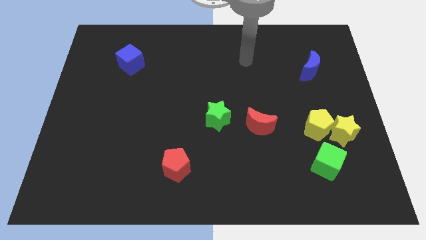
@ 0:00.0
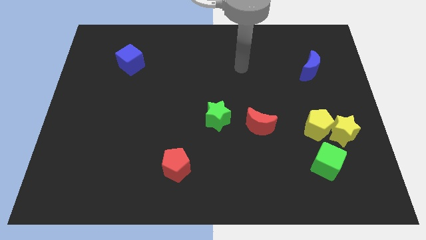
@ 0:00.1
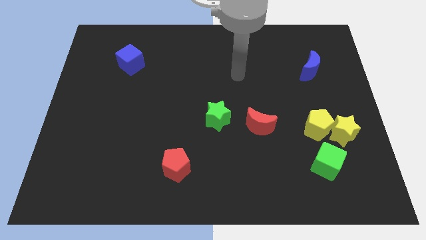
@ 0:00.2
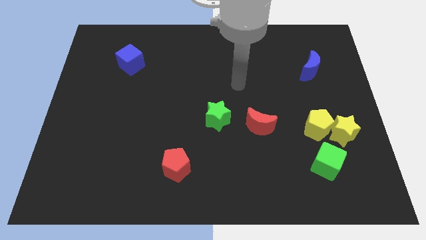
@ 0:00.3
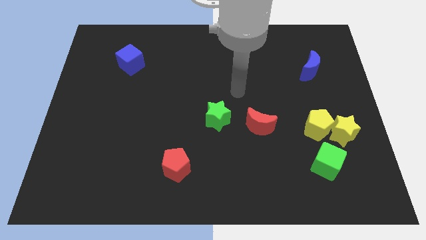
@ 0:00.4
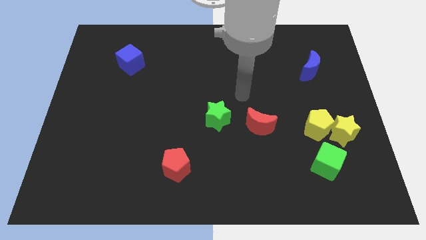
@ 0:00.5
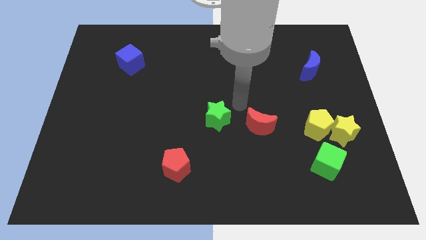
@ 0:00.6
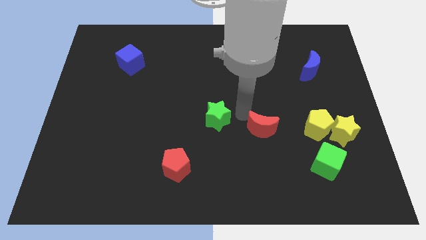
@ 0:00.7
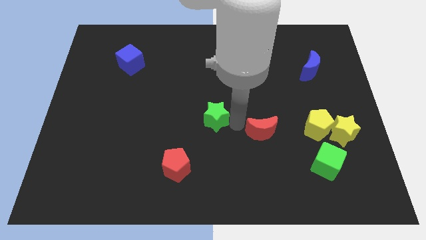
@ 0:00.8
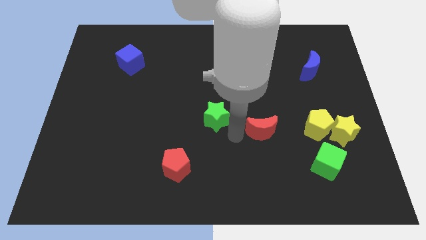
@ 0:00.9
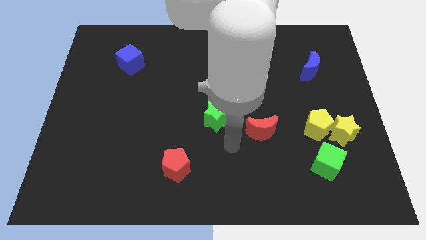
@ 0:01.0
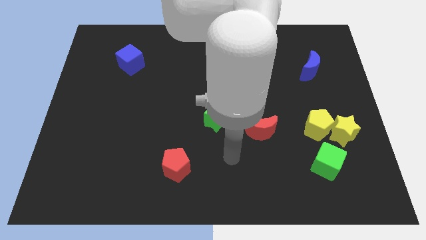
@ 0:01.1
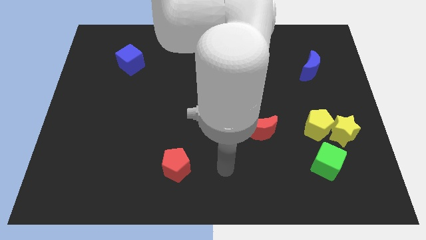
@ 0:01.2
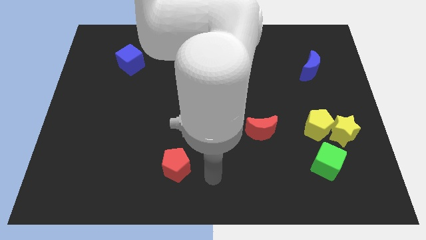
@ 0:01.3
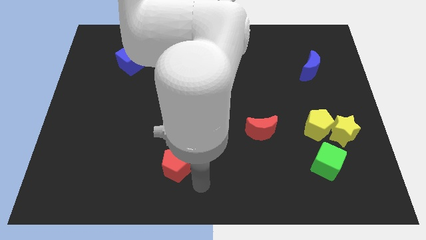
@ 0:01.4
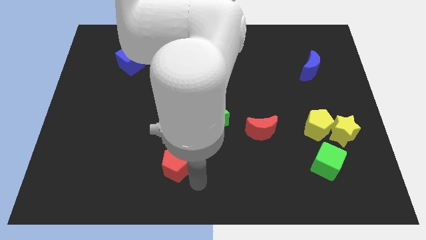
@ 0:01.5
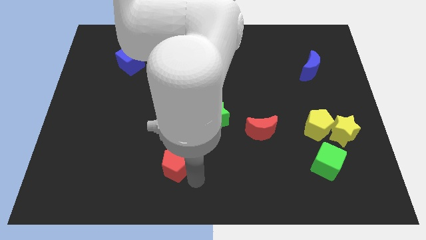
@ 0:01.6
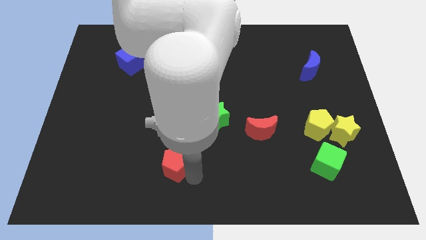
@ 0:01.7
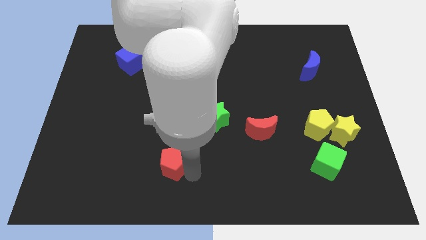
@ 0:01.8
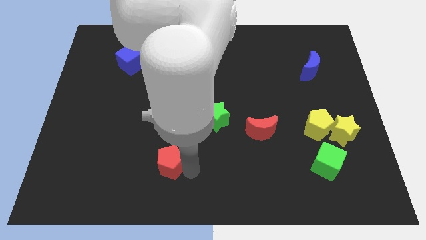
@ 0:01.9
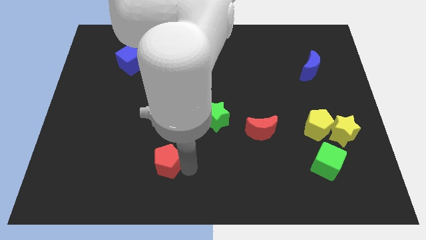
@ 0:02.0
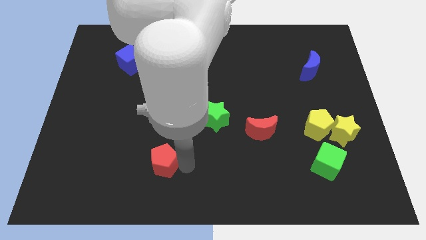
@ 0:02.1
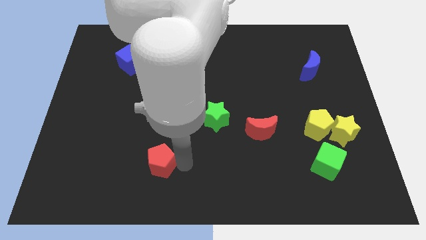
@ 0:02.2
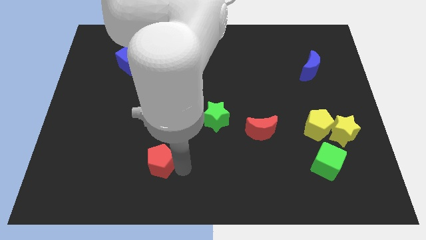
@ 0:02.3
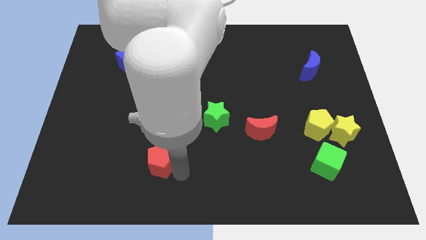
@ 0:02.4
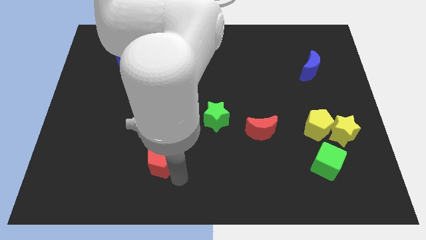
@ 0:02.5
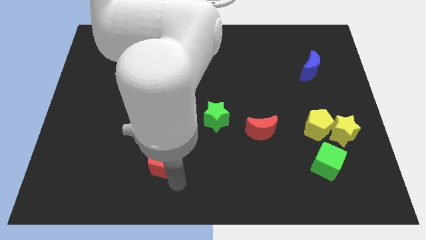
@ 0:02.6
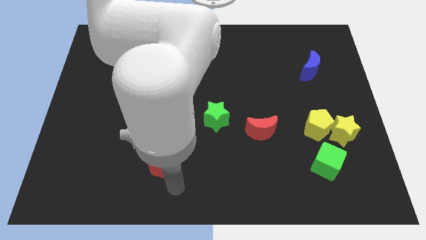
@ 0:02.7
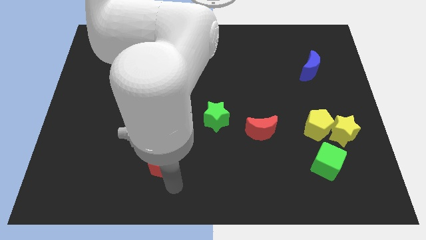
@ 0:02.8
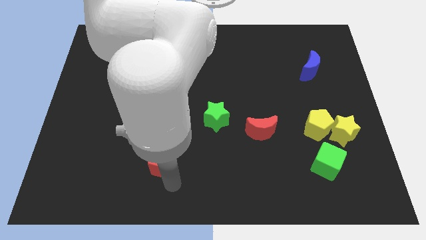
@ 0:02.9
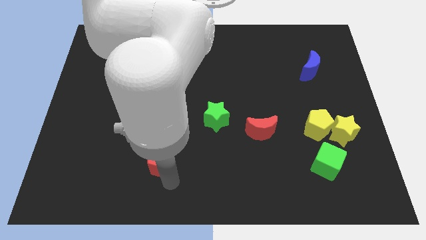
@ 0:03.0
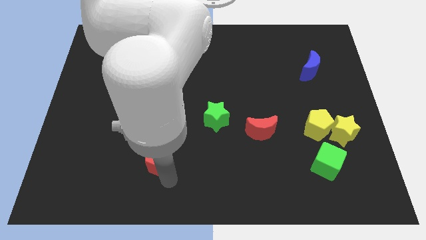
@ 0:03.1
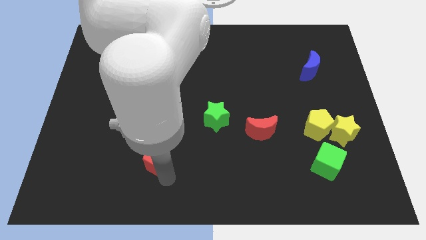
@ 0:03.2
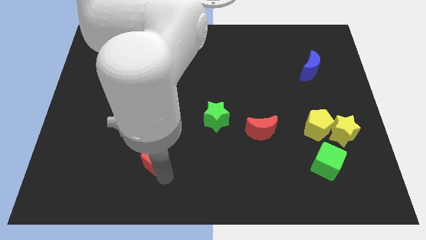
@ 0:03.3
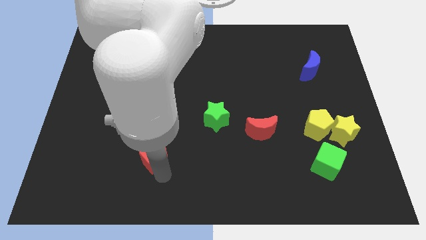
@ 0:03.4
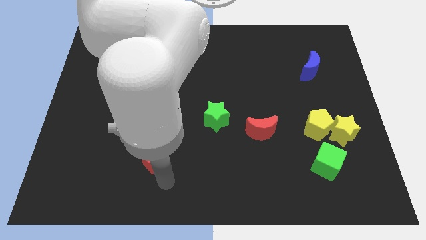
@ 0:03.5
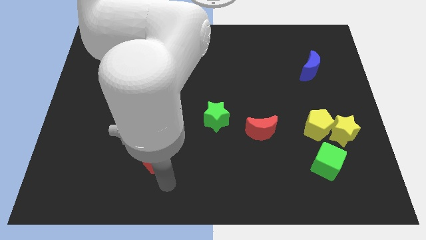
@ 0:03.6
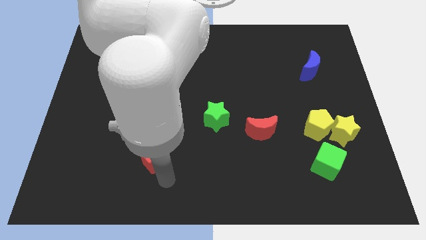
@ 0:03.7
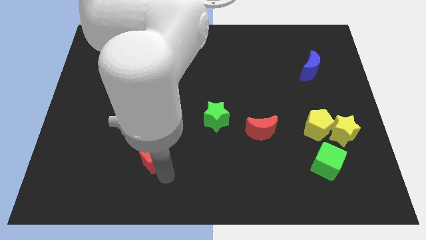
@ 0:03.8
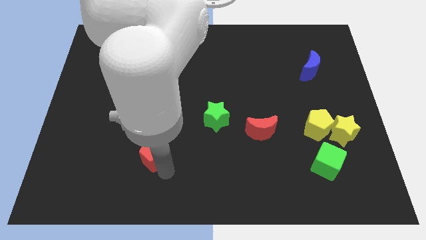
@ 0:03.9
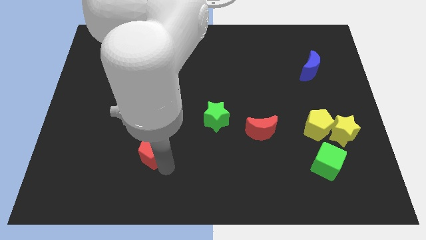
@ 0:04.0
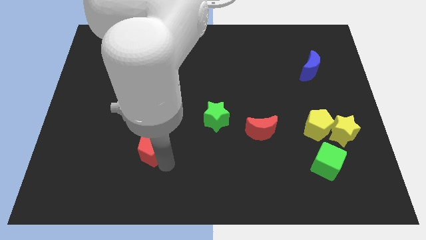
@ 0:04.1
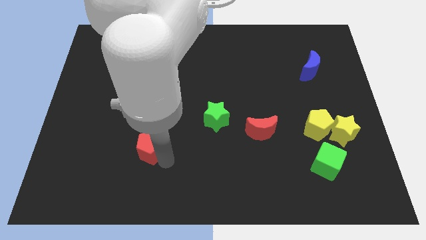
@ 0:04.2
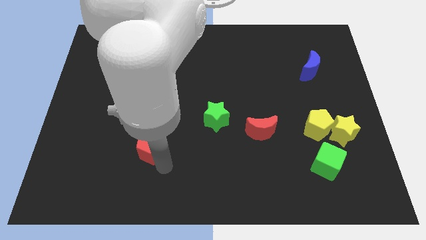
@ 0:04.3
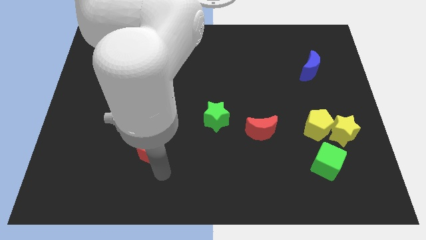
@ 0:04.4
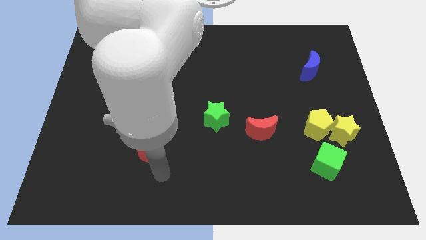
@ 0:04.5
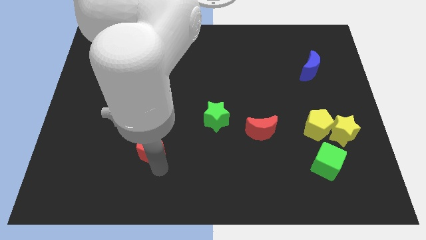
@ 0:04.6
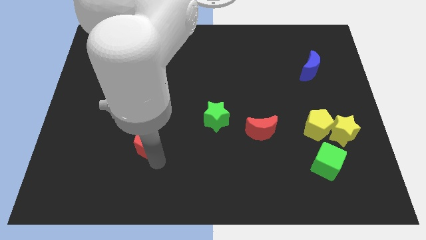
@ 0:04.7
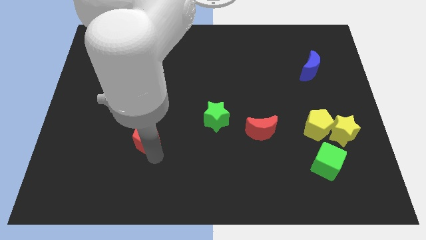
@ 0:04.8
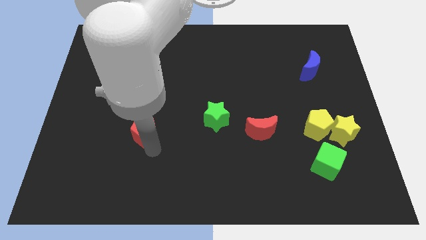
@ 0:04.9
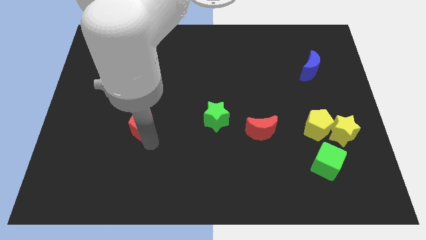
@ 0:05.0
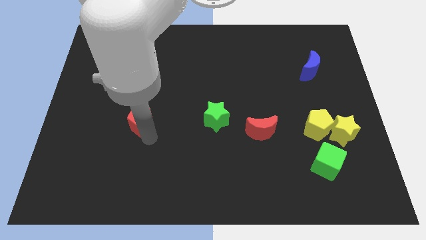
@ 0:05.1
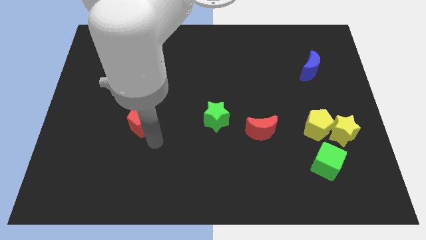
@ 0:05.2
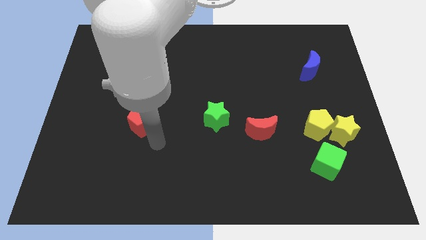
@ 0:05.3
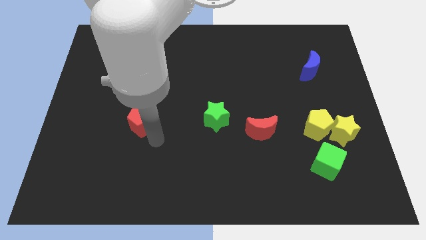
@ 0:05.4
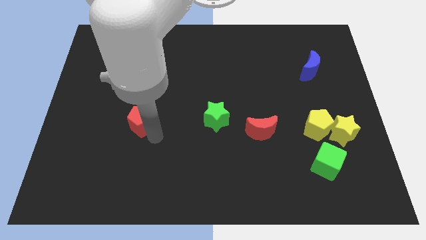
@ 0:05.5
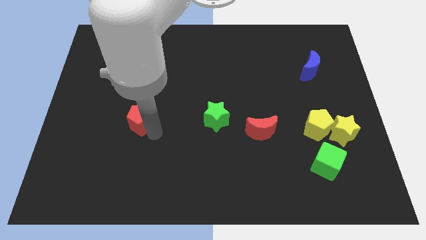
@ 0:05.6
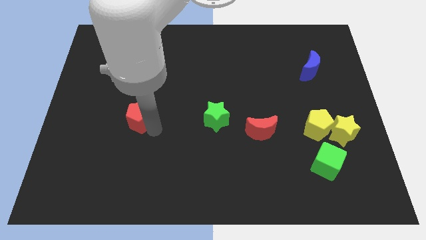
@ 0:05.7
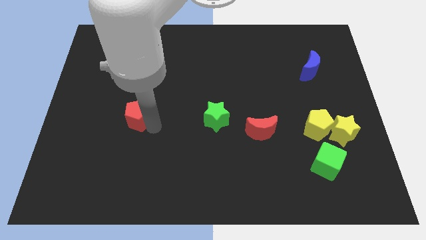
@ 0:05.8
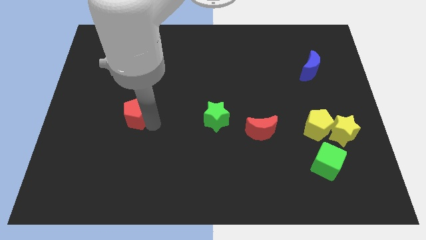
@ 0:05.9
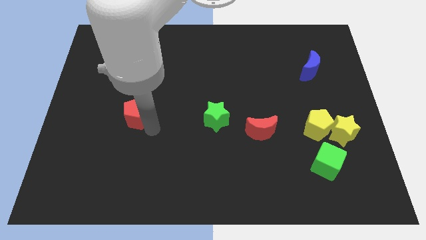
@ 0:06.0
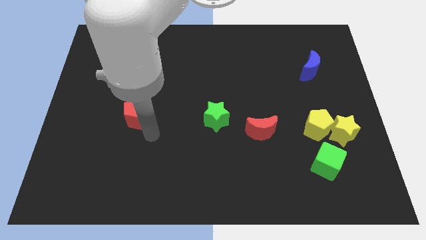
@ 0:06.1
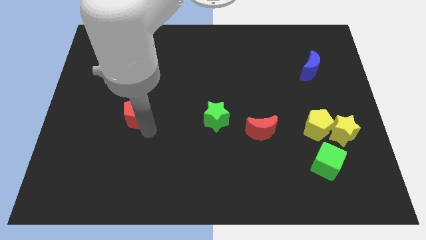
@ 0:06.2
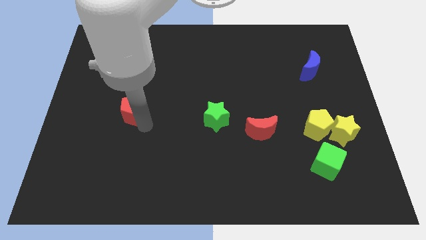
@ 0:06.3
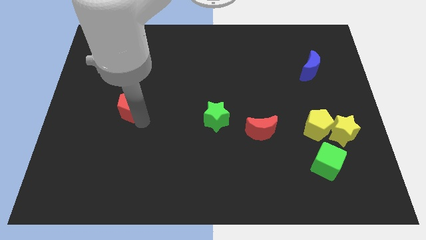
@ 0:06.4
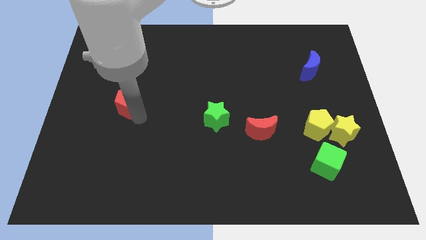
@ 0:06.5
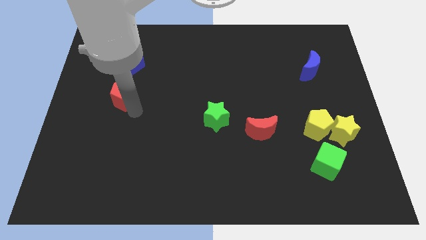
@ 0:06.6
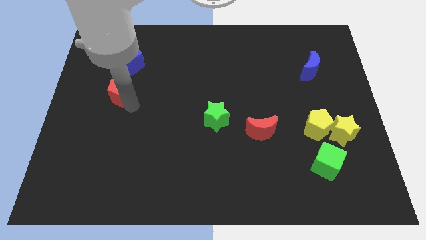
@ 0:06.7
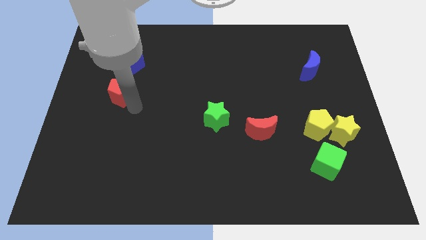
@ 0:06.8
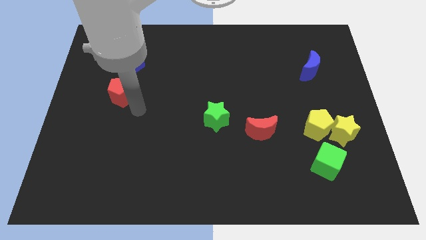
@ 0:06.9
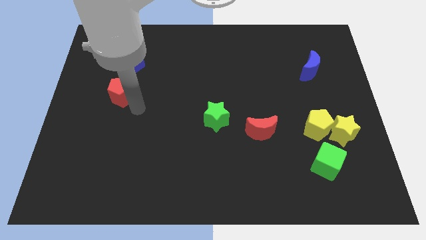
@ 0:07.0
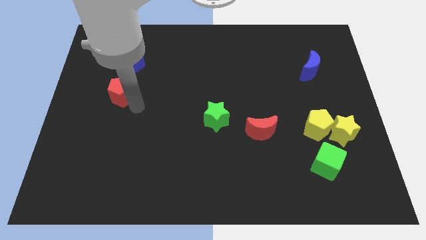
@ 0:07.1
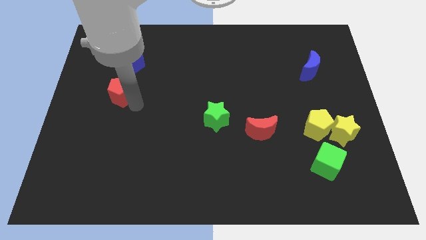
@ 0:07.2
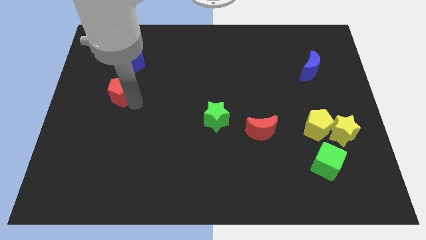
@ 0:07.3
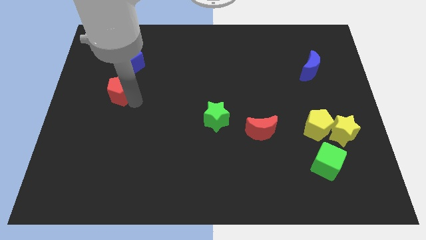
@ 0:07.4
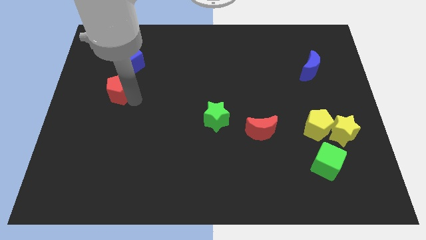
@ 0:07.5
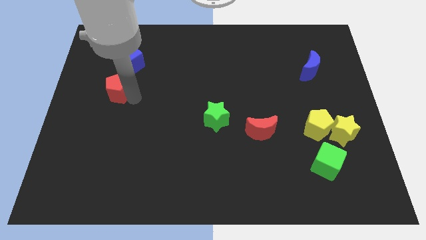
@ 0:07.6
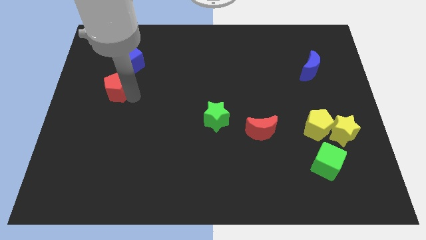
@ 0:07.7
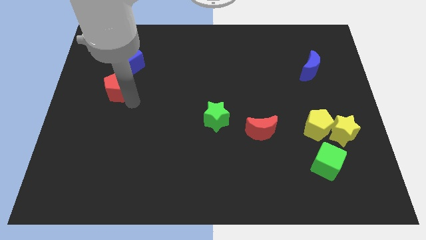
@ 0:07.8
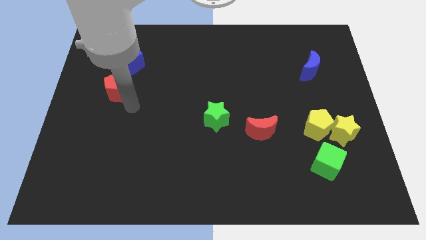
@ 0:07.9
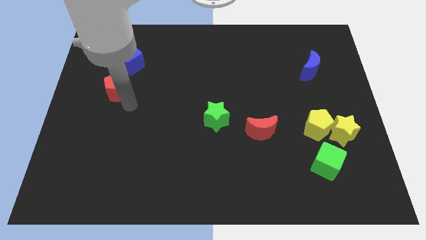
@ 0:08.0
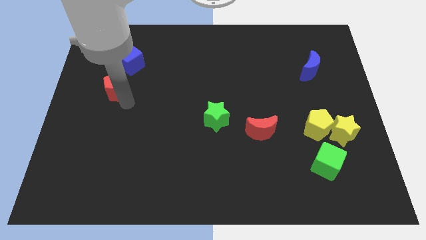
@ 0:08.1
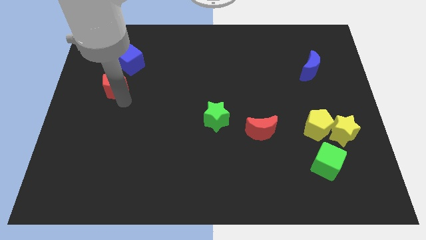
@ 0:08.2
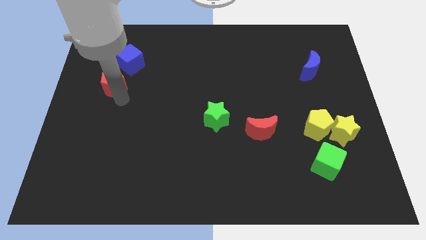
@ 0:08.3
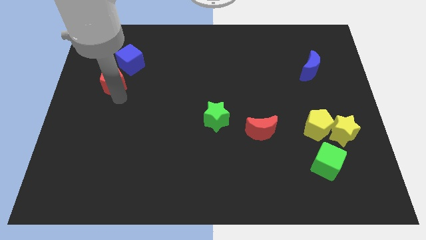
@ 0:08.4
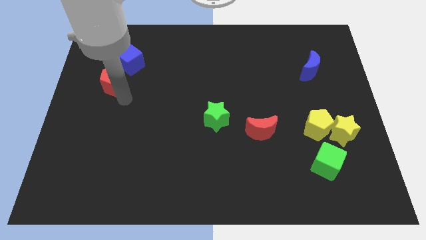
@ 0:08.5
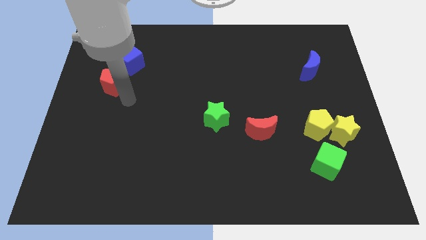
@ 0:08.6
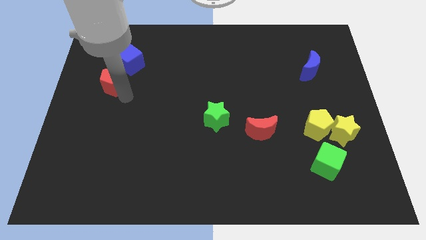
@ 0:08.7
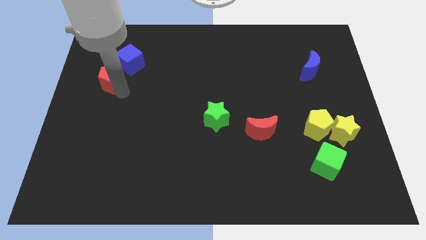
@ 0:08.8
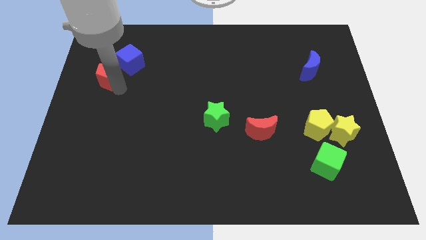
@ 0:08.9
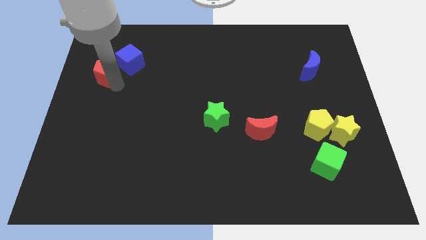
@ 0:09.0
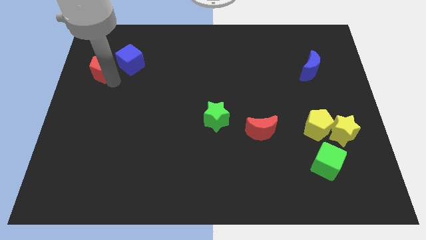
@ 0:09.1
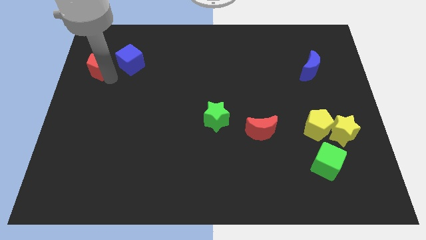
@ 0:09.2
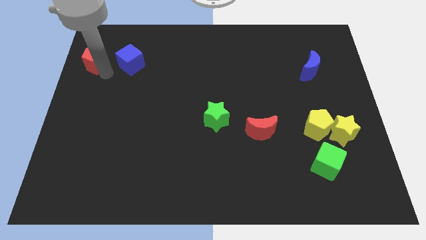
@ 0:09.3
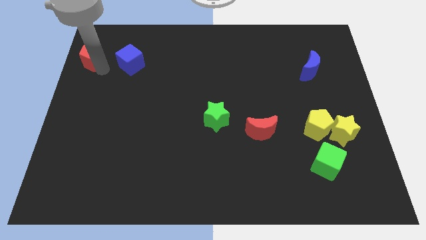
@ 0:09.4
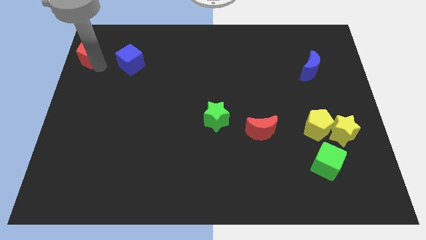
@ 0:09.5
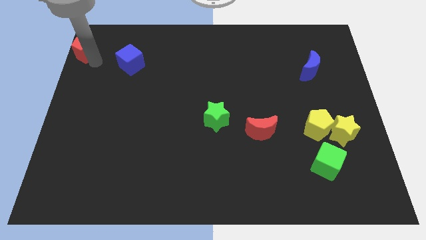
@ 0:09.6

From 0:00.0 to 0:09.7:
put the red pentagon to the top left of the board
